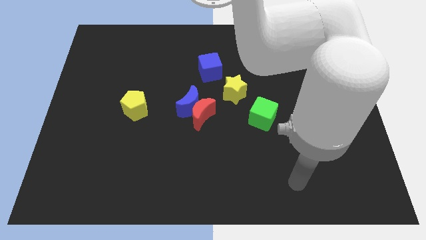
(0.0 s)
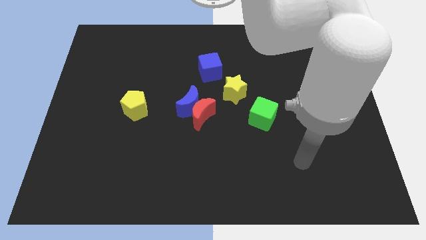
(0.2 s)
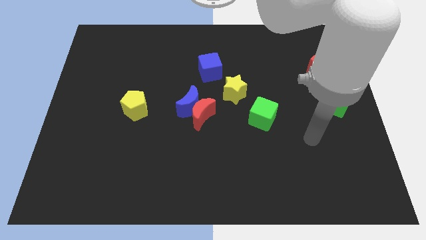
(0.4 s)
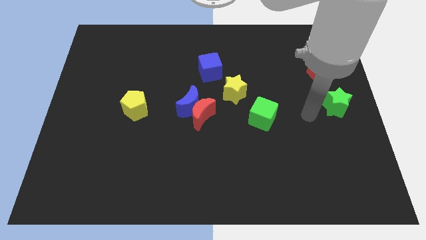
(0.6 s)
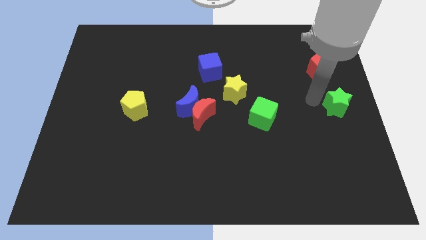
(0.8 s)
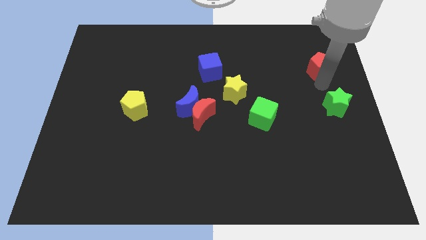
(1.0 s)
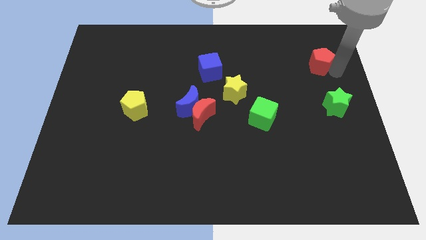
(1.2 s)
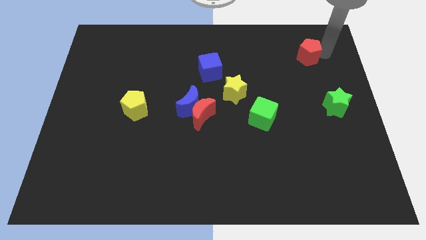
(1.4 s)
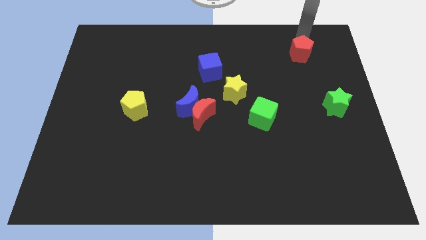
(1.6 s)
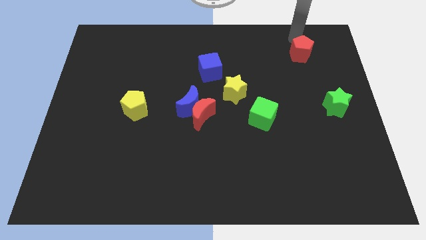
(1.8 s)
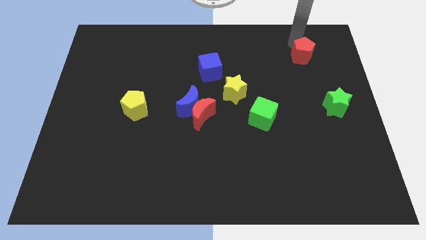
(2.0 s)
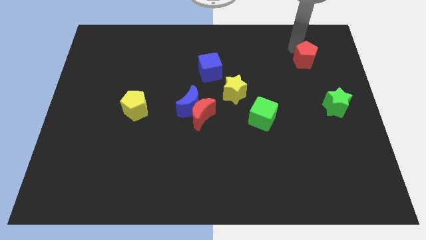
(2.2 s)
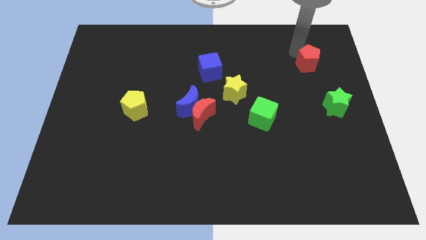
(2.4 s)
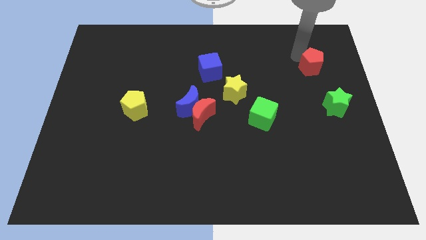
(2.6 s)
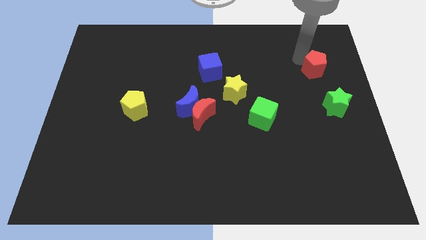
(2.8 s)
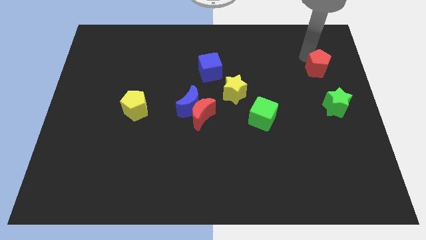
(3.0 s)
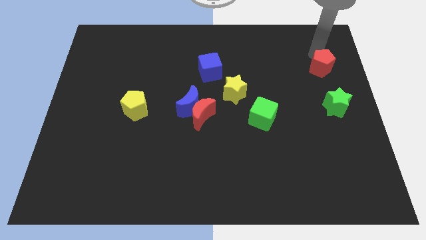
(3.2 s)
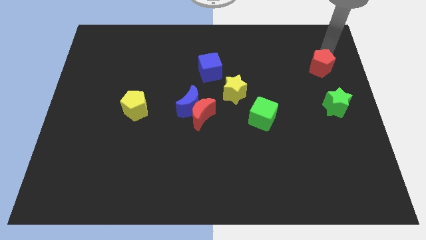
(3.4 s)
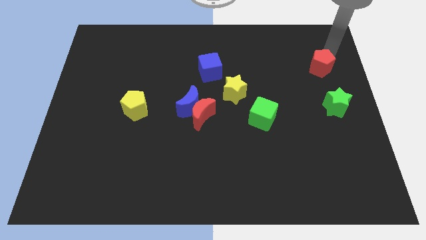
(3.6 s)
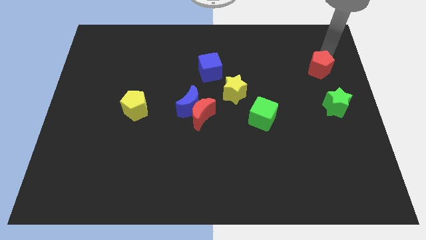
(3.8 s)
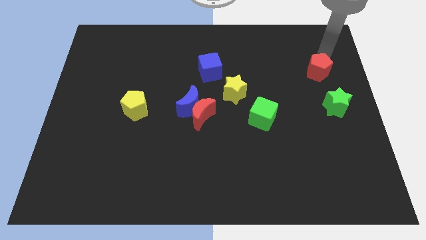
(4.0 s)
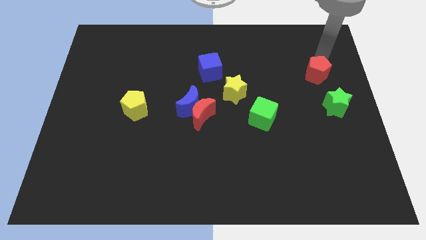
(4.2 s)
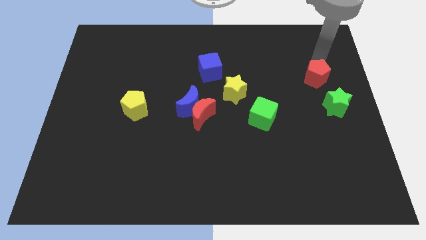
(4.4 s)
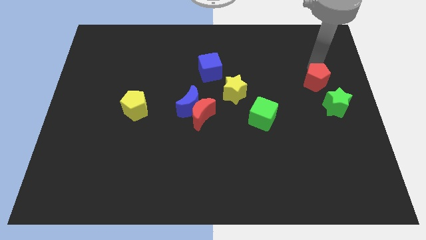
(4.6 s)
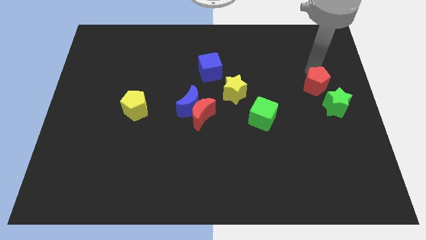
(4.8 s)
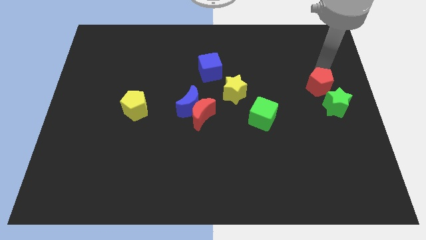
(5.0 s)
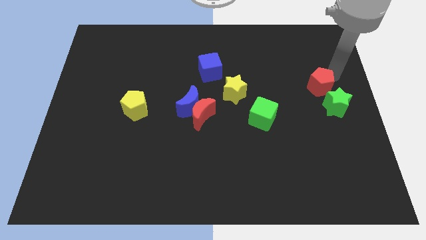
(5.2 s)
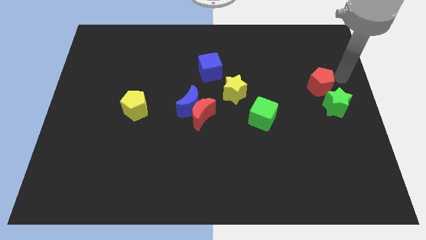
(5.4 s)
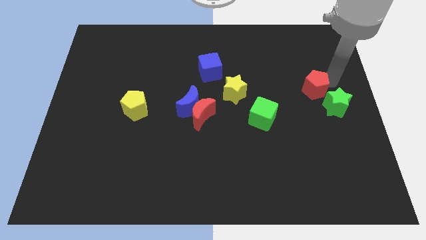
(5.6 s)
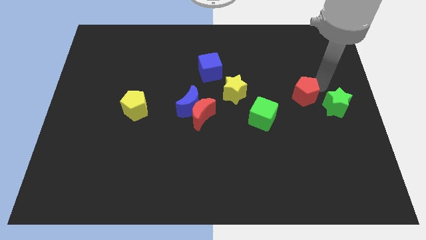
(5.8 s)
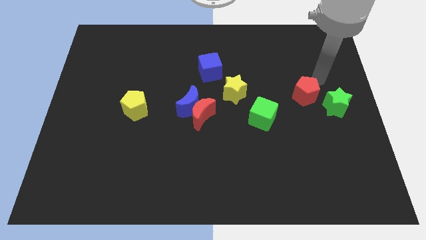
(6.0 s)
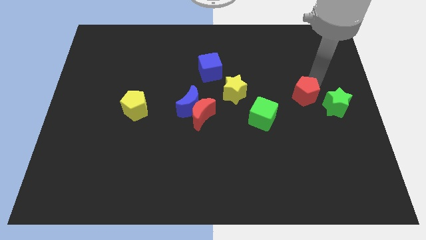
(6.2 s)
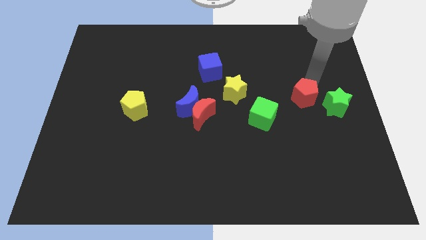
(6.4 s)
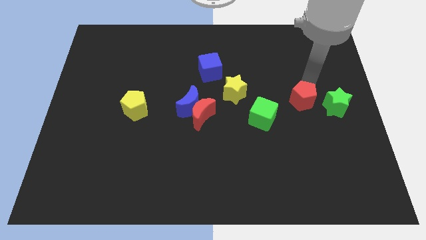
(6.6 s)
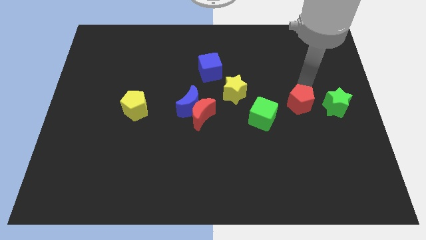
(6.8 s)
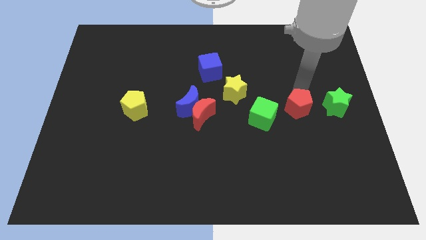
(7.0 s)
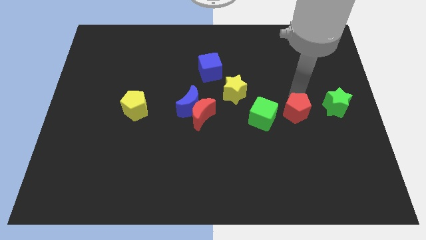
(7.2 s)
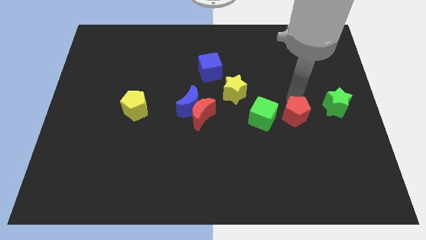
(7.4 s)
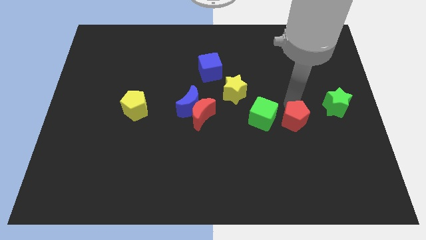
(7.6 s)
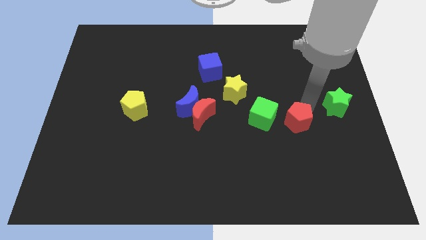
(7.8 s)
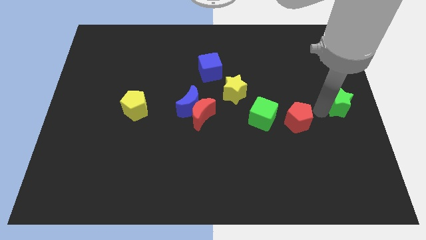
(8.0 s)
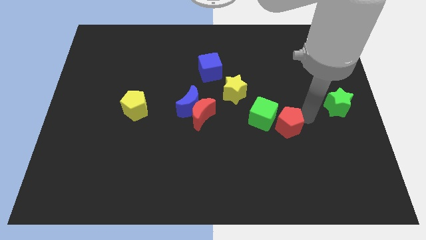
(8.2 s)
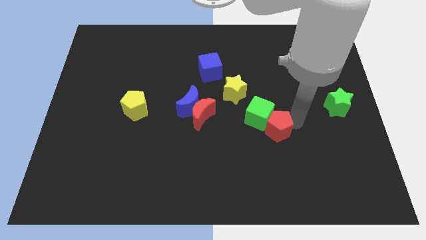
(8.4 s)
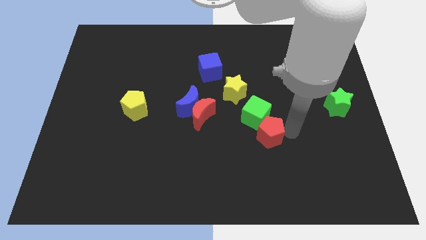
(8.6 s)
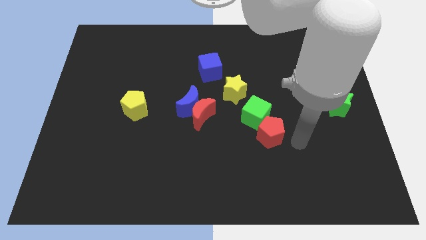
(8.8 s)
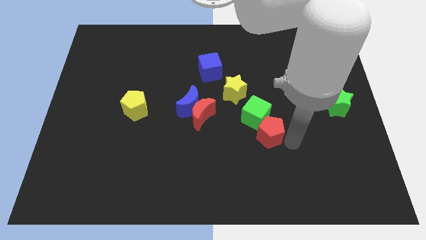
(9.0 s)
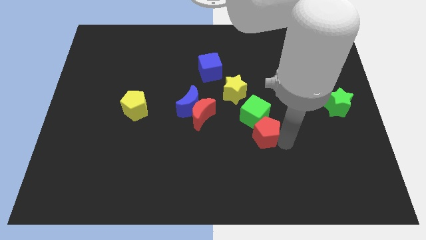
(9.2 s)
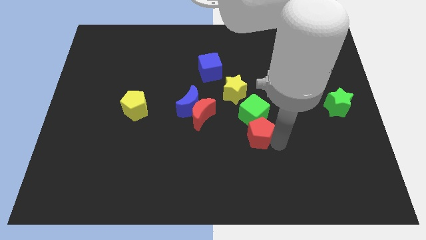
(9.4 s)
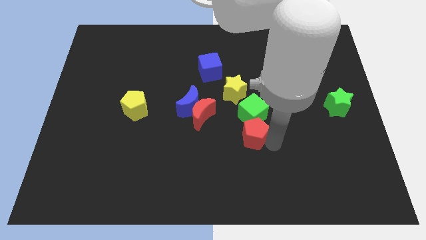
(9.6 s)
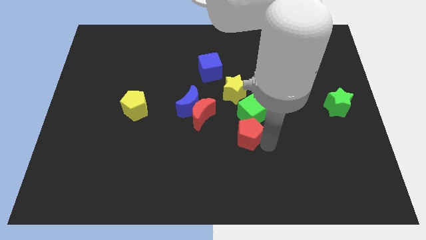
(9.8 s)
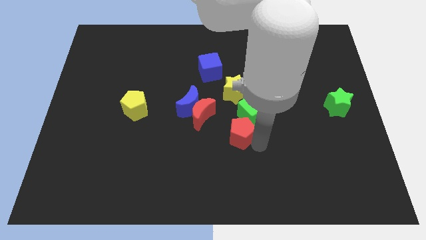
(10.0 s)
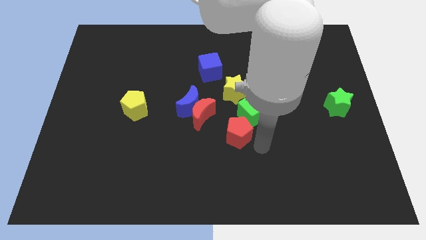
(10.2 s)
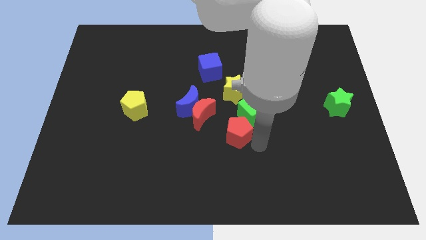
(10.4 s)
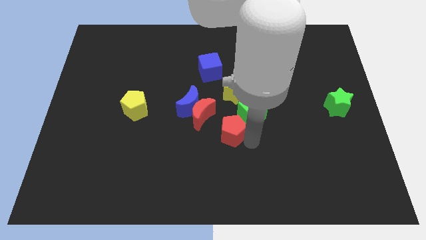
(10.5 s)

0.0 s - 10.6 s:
put the red pentagon to the bottom right of the blue moon

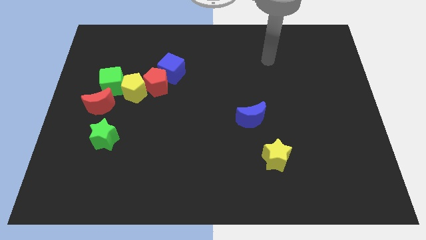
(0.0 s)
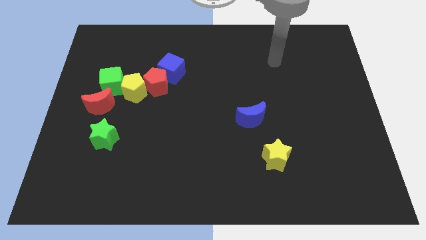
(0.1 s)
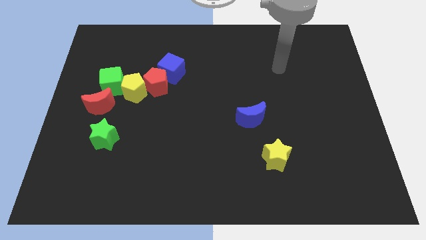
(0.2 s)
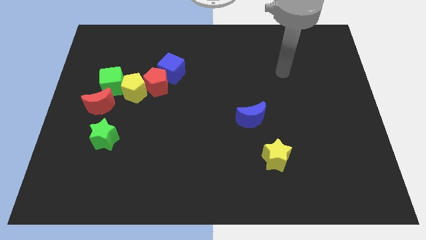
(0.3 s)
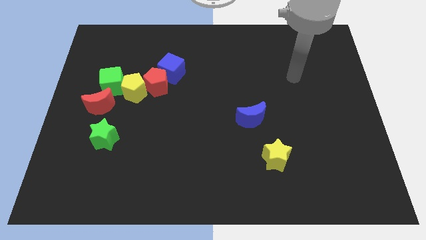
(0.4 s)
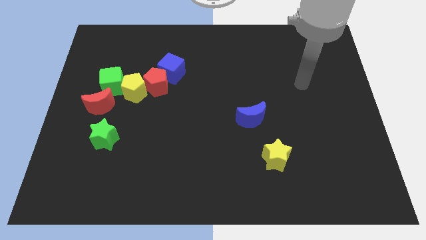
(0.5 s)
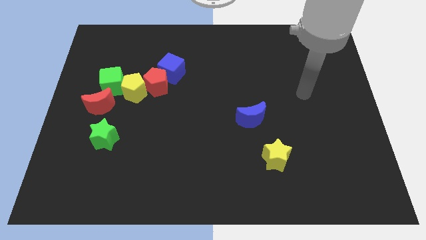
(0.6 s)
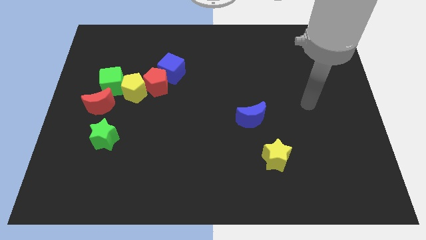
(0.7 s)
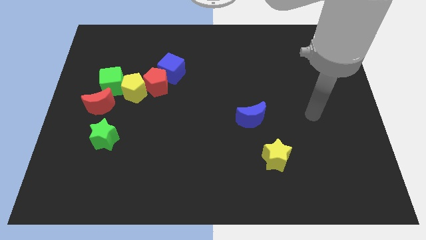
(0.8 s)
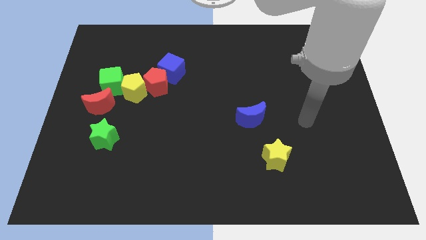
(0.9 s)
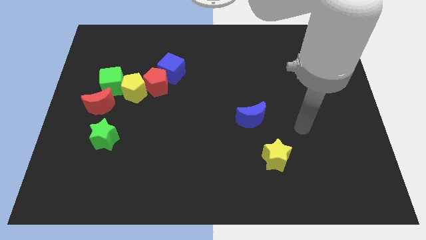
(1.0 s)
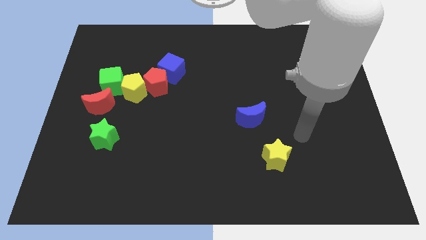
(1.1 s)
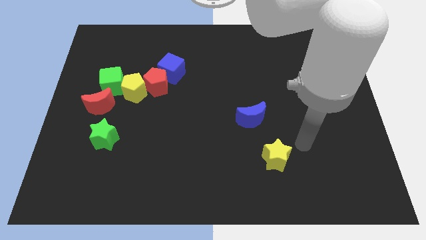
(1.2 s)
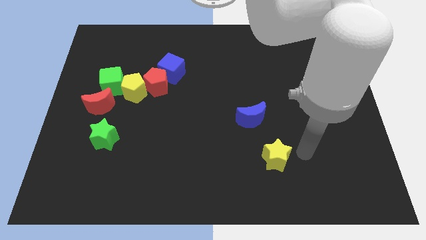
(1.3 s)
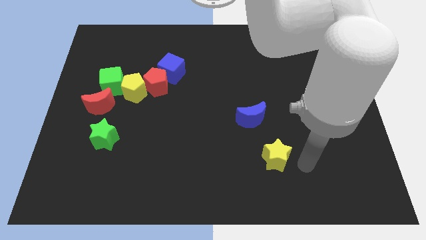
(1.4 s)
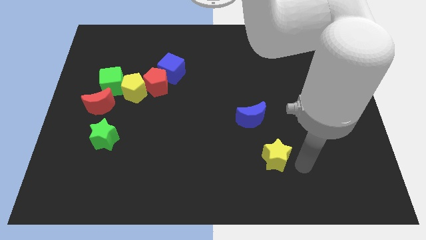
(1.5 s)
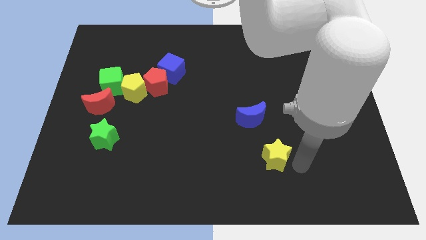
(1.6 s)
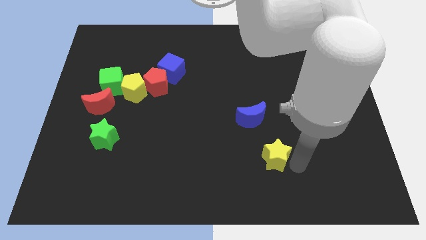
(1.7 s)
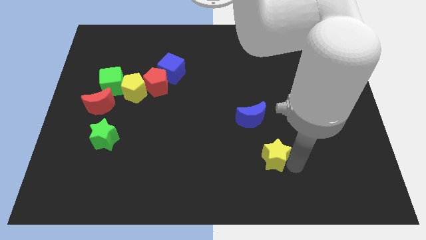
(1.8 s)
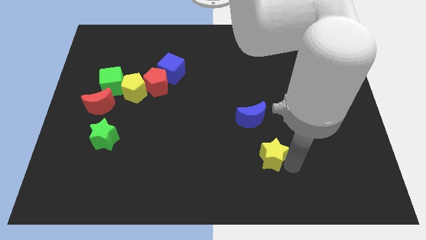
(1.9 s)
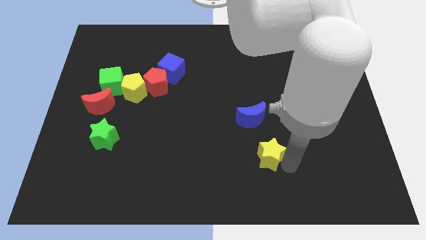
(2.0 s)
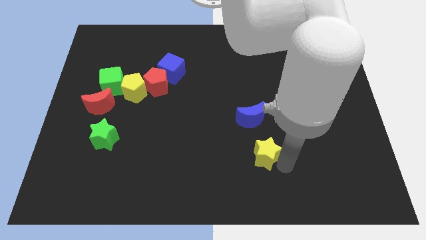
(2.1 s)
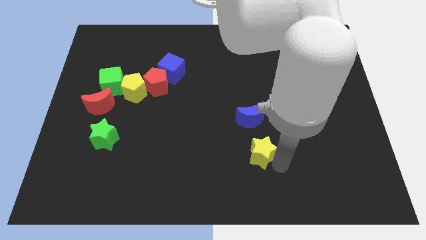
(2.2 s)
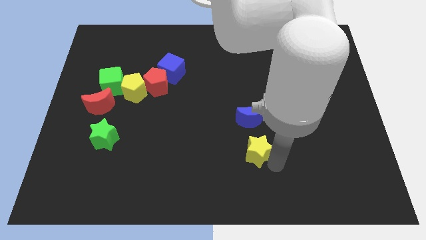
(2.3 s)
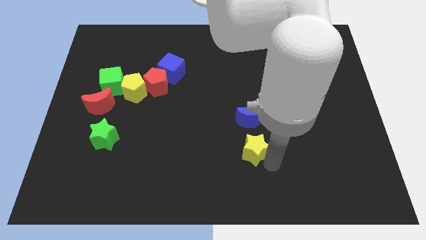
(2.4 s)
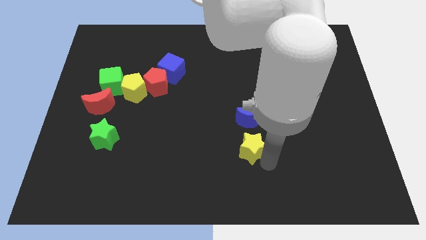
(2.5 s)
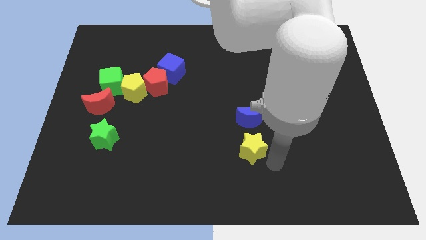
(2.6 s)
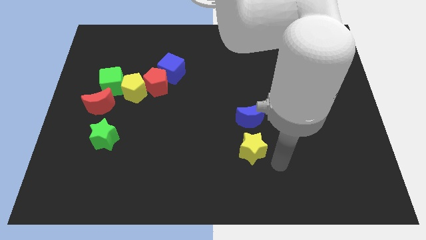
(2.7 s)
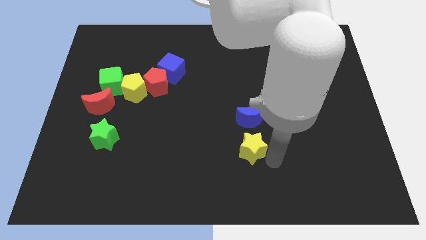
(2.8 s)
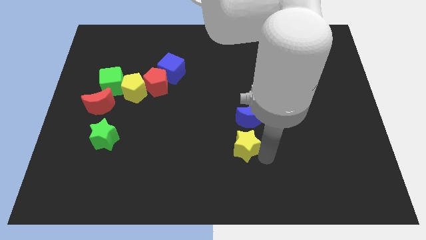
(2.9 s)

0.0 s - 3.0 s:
push the yellow star diagonally down and to the left of the blue moon
